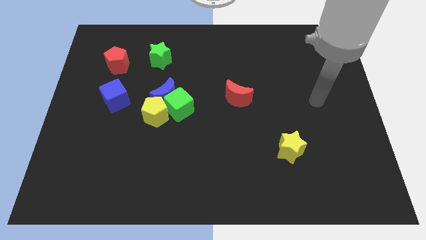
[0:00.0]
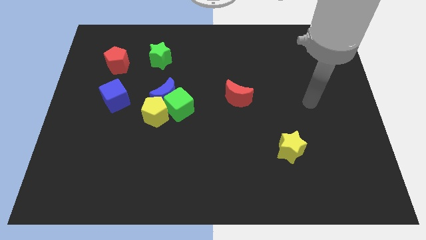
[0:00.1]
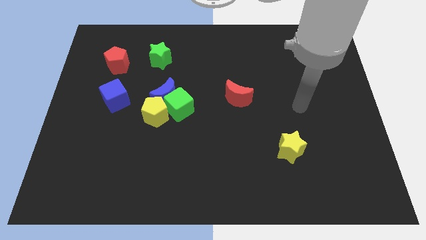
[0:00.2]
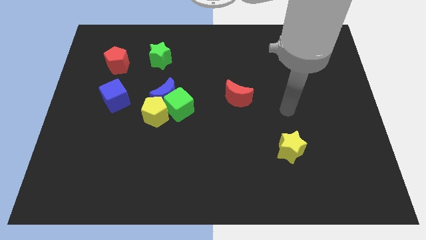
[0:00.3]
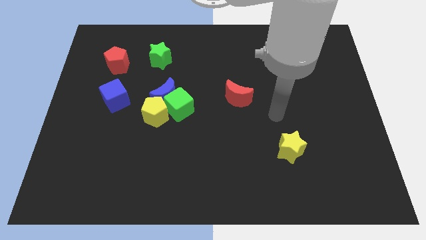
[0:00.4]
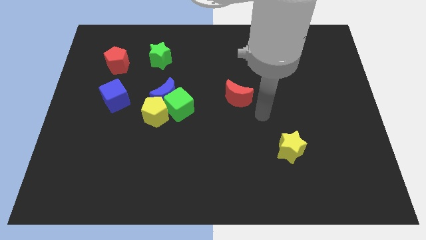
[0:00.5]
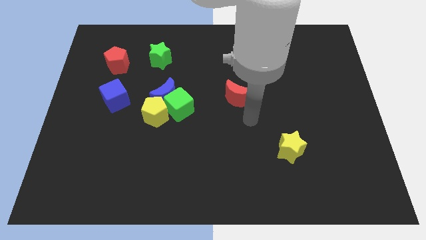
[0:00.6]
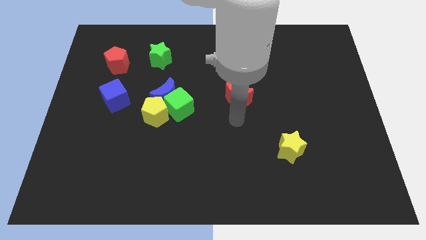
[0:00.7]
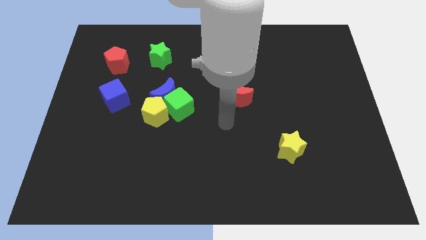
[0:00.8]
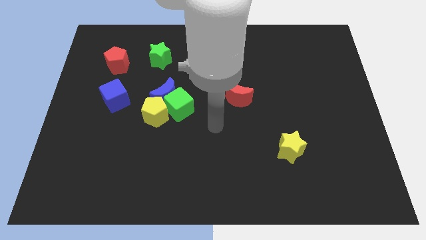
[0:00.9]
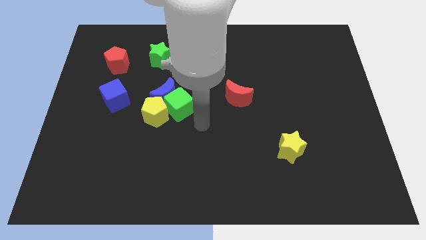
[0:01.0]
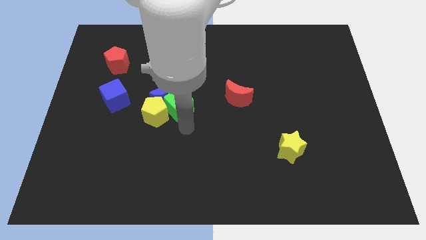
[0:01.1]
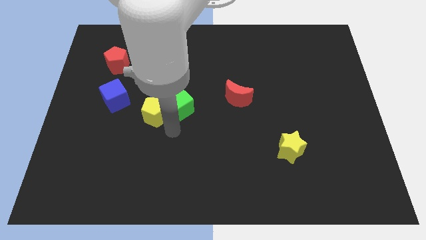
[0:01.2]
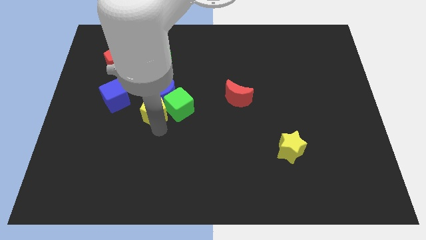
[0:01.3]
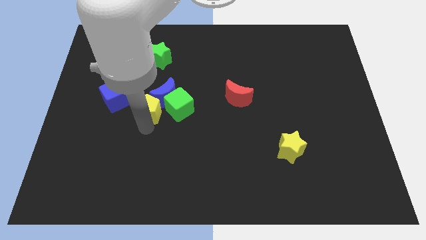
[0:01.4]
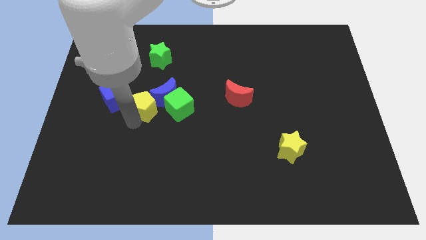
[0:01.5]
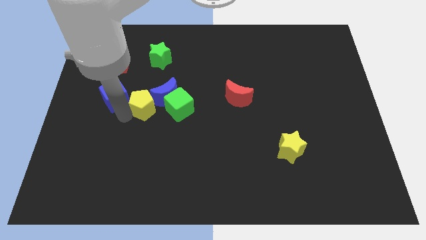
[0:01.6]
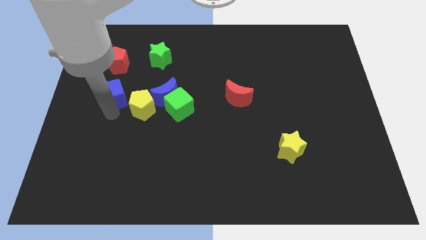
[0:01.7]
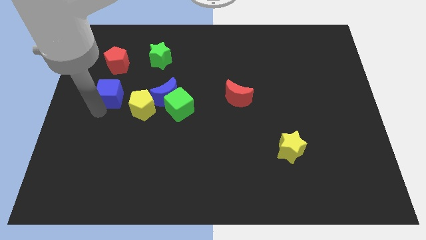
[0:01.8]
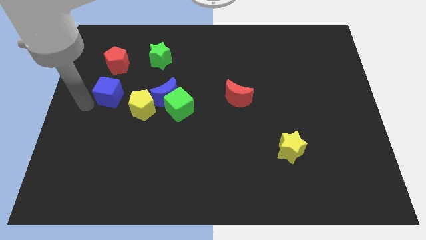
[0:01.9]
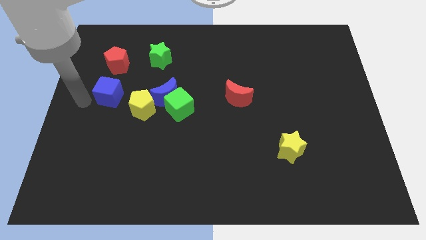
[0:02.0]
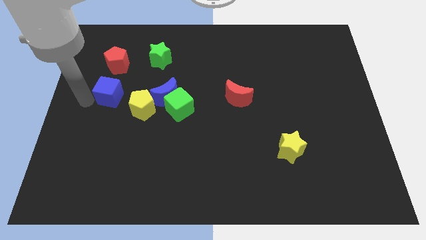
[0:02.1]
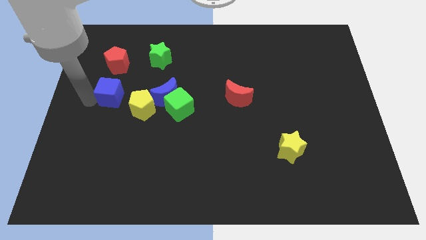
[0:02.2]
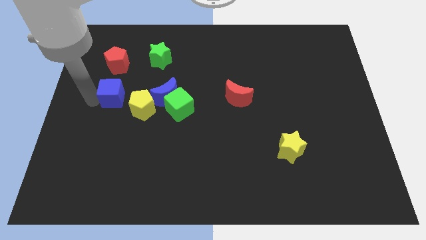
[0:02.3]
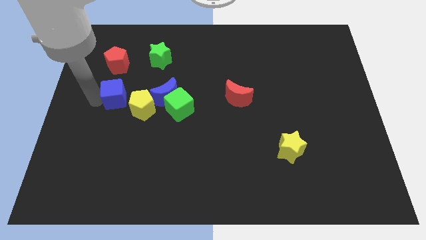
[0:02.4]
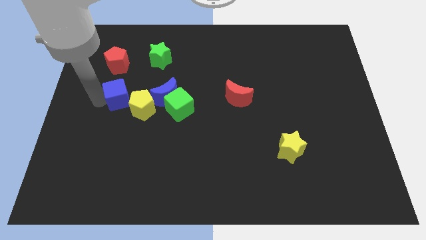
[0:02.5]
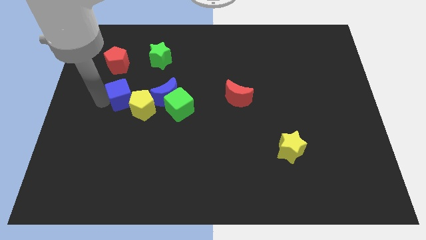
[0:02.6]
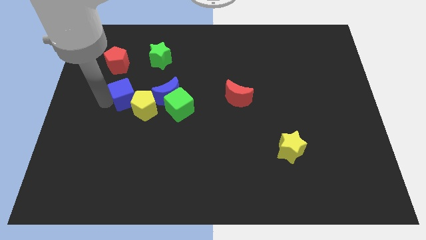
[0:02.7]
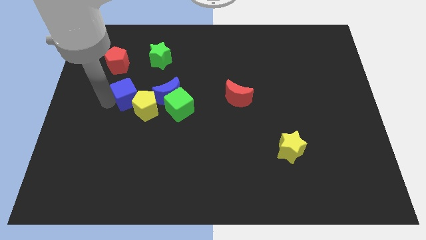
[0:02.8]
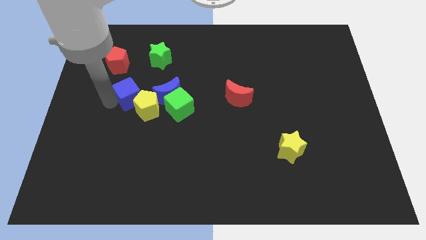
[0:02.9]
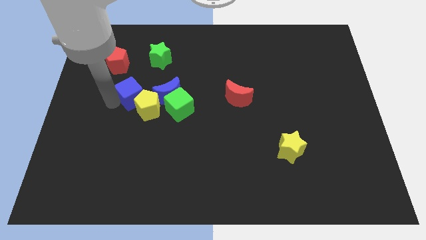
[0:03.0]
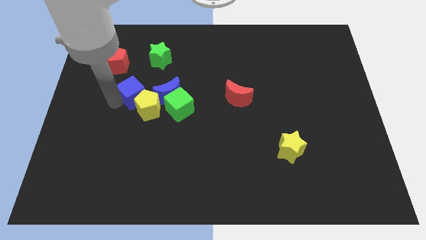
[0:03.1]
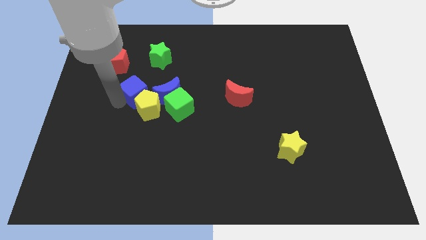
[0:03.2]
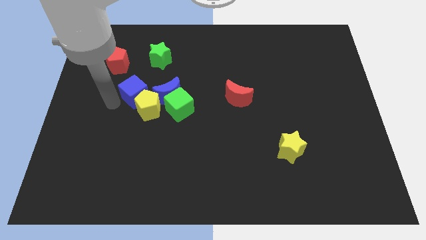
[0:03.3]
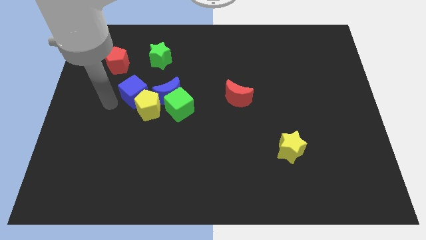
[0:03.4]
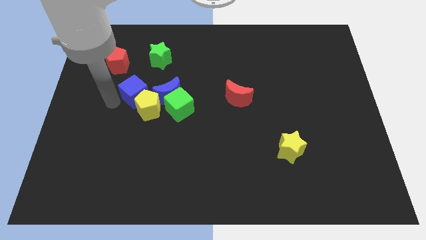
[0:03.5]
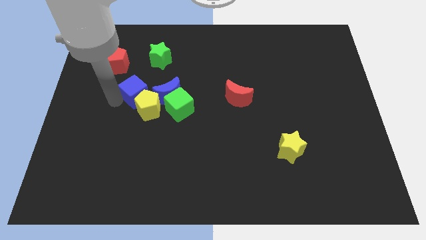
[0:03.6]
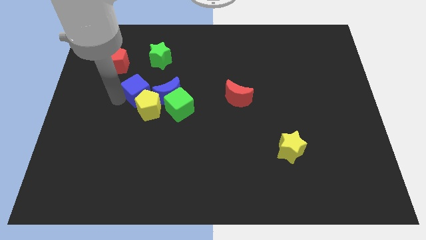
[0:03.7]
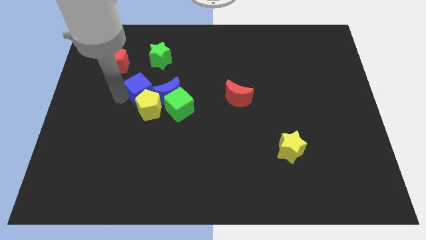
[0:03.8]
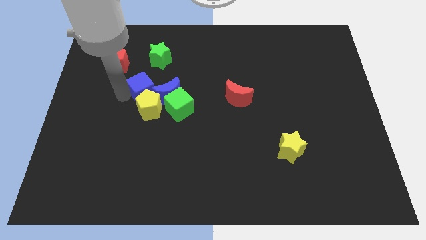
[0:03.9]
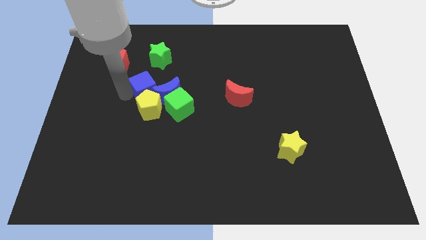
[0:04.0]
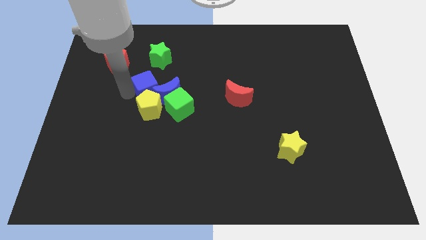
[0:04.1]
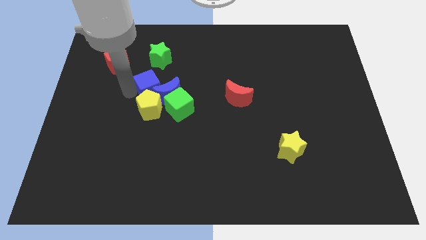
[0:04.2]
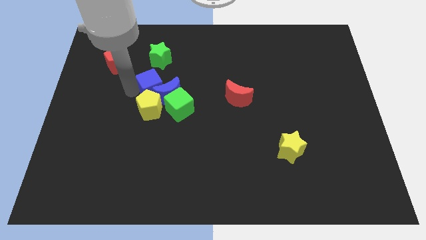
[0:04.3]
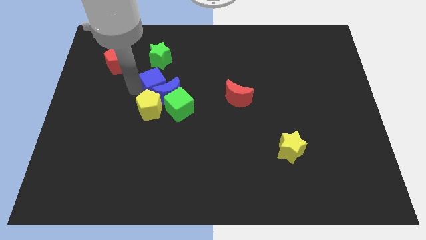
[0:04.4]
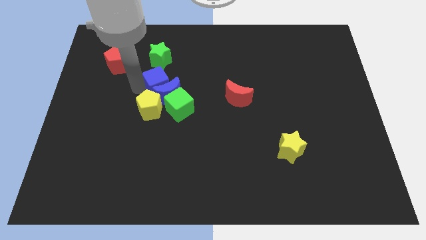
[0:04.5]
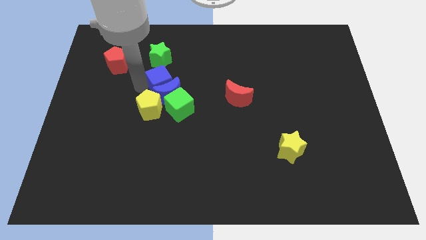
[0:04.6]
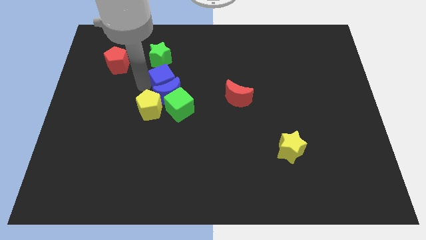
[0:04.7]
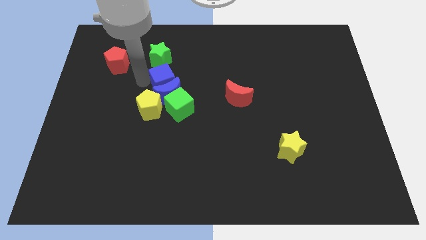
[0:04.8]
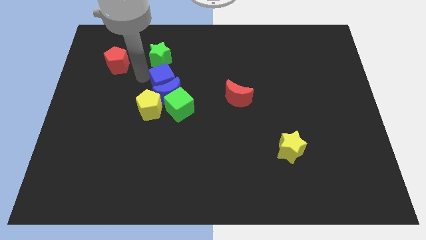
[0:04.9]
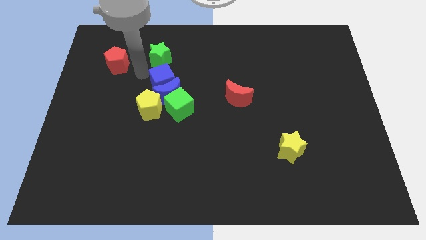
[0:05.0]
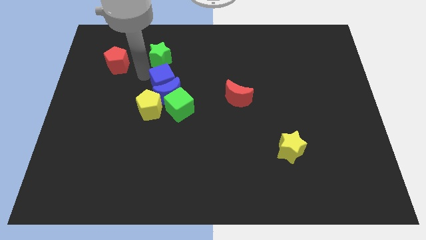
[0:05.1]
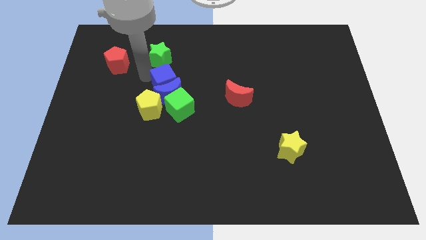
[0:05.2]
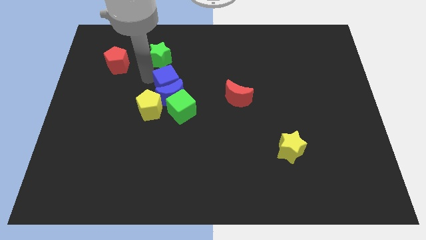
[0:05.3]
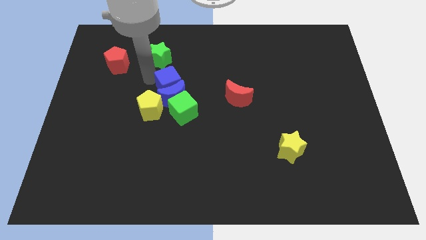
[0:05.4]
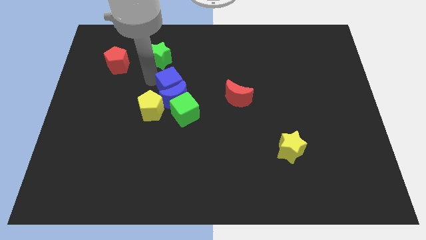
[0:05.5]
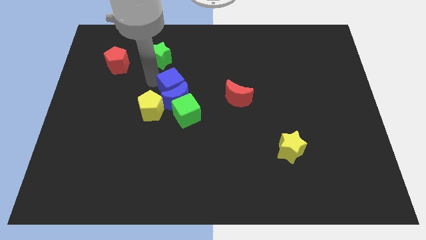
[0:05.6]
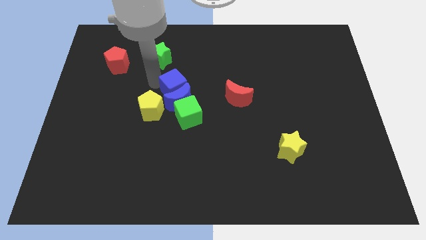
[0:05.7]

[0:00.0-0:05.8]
move the blue cube left of the red moon

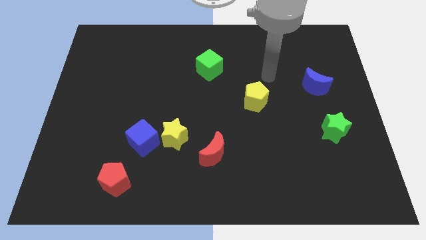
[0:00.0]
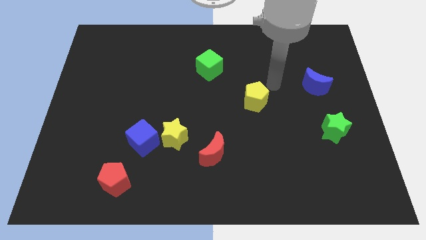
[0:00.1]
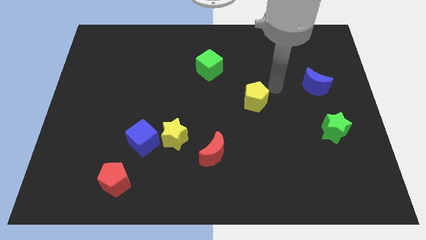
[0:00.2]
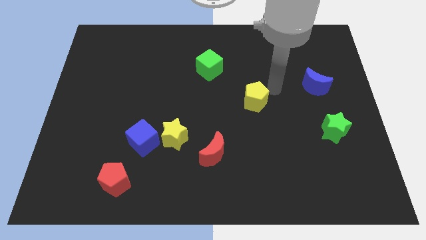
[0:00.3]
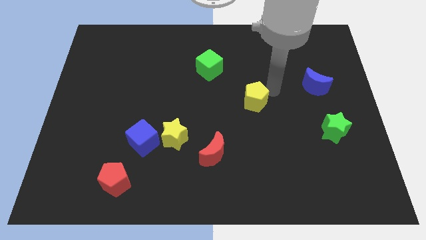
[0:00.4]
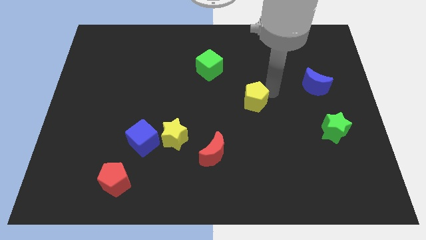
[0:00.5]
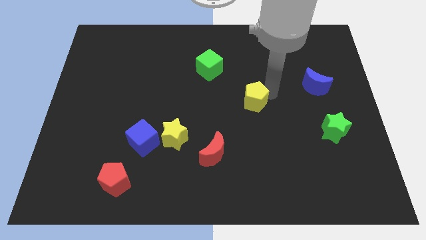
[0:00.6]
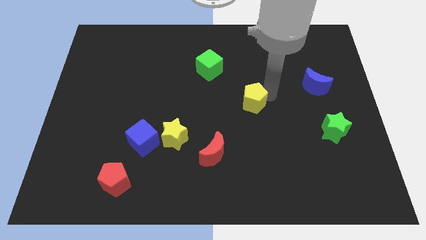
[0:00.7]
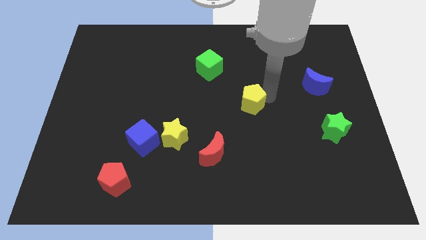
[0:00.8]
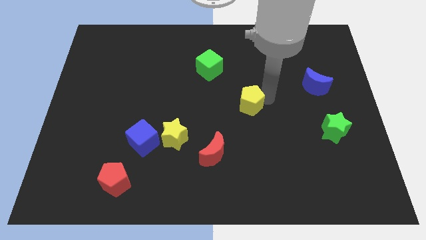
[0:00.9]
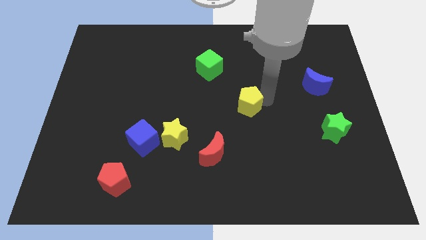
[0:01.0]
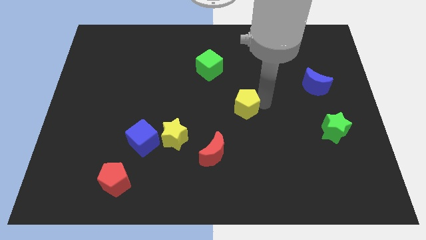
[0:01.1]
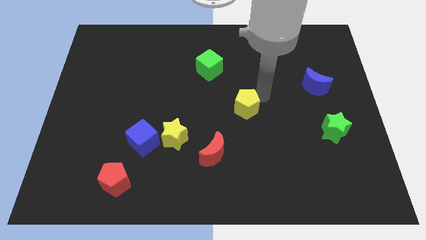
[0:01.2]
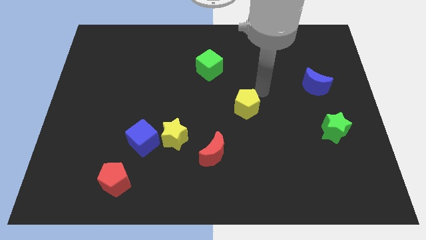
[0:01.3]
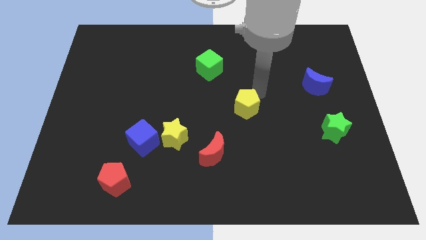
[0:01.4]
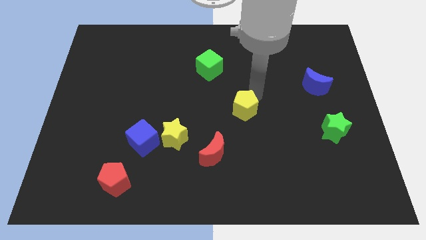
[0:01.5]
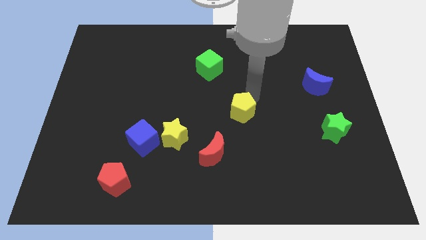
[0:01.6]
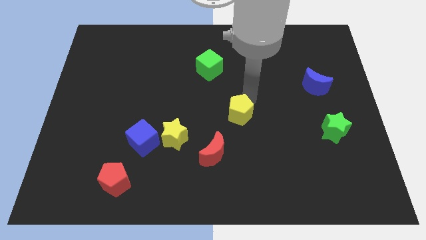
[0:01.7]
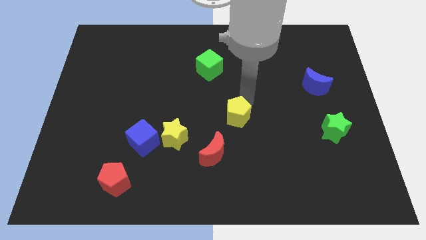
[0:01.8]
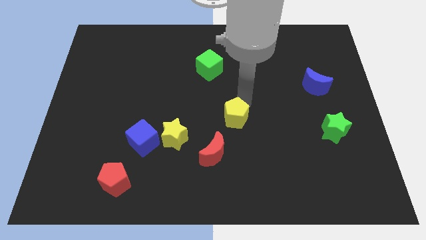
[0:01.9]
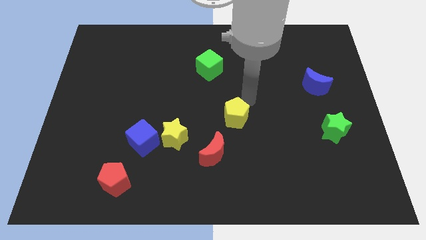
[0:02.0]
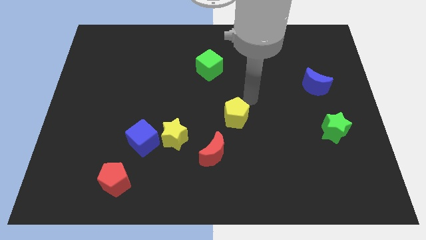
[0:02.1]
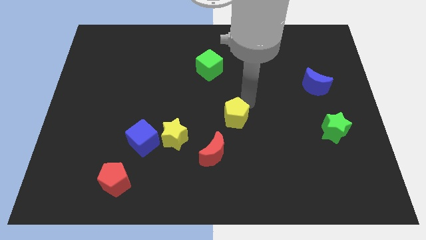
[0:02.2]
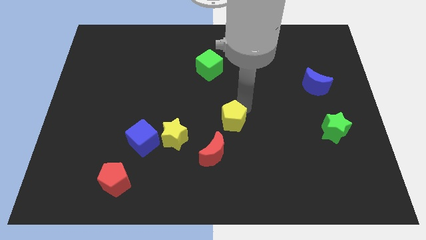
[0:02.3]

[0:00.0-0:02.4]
slide the yellow pentagon just right of the yellow star
